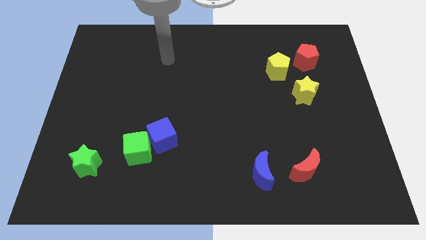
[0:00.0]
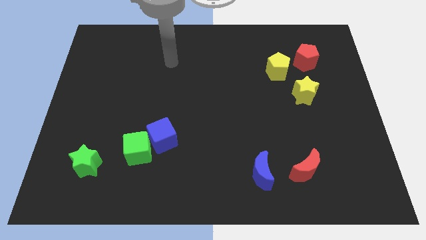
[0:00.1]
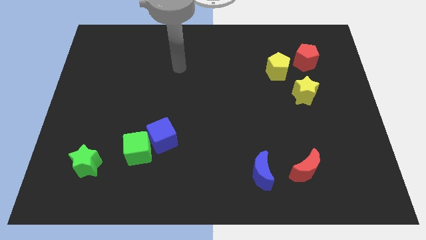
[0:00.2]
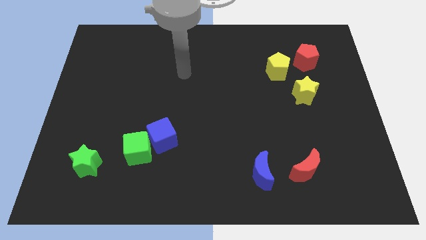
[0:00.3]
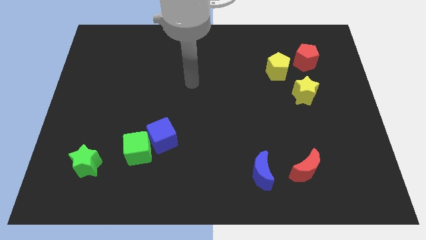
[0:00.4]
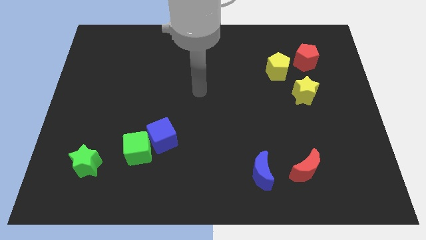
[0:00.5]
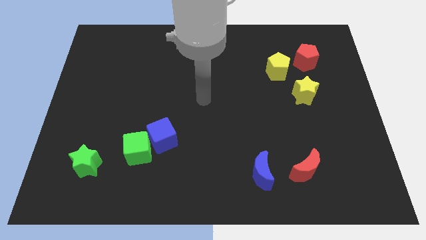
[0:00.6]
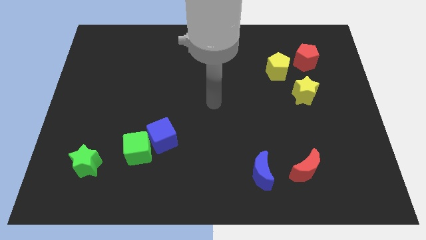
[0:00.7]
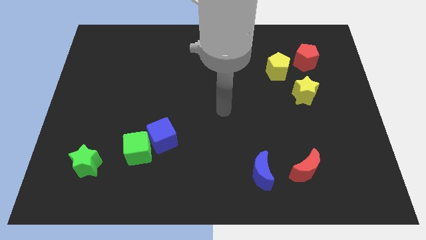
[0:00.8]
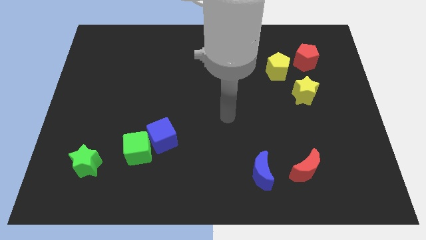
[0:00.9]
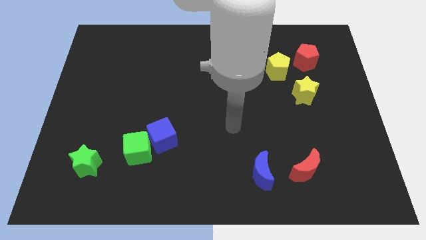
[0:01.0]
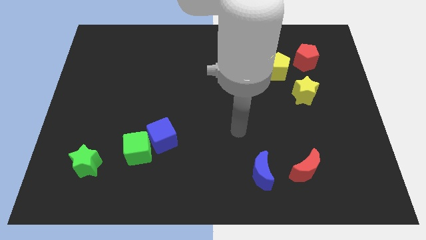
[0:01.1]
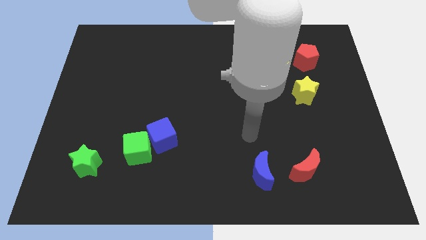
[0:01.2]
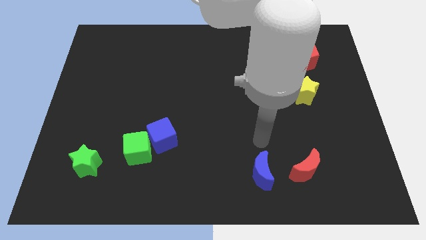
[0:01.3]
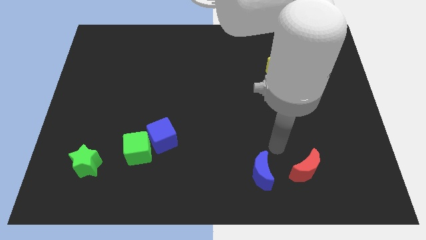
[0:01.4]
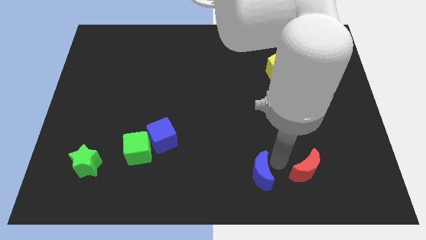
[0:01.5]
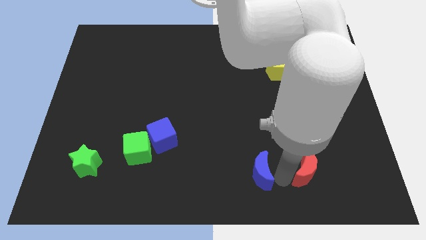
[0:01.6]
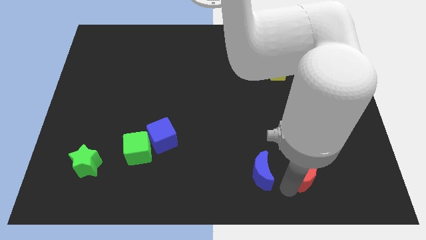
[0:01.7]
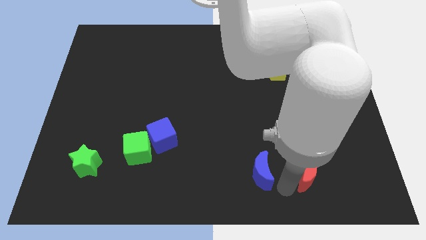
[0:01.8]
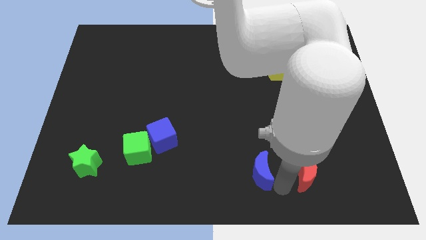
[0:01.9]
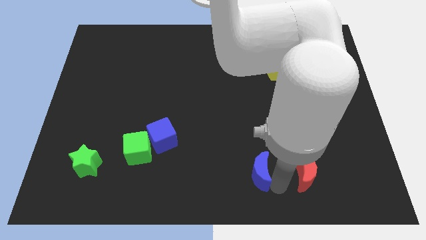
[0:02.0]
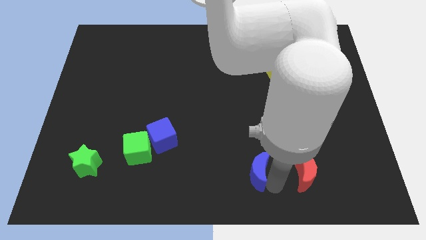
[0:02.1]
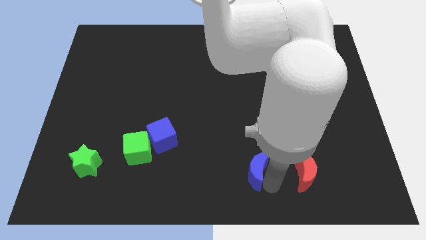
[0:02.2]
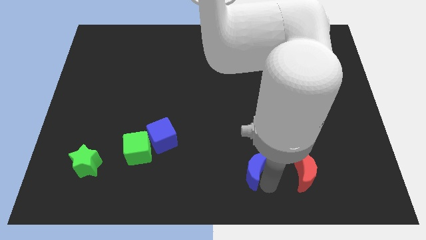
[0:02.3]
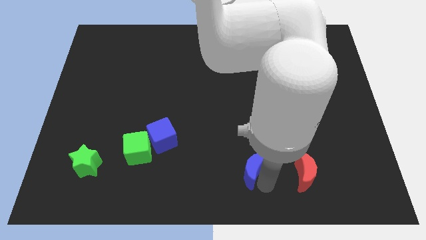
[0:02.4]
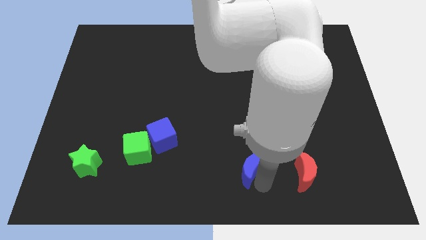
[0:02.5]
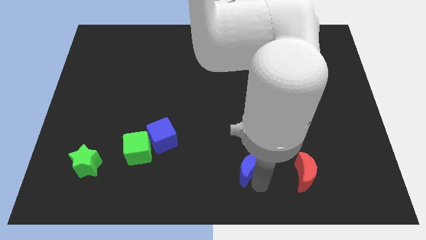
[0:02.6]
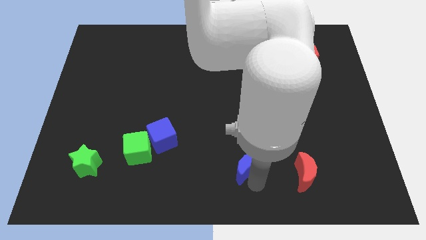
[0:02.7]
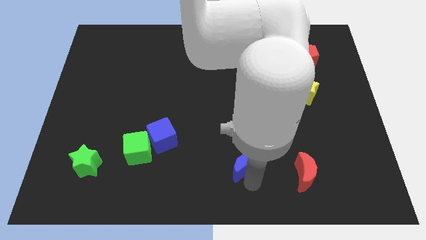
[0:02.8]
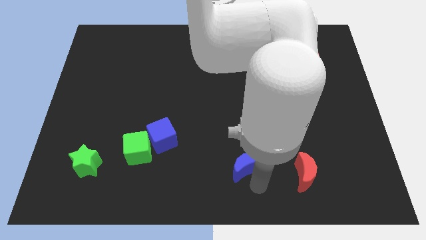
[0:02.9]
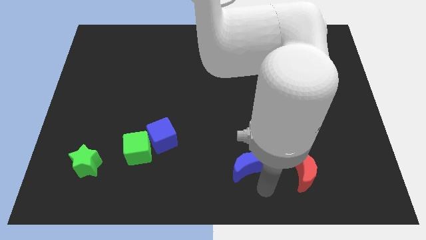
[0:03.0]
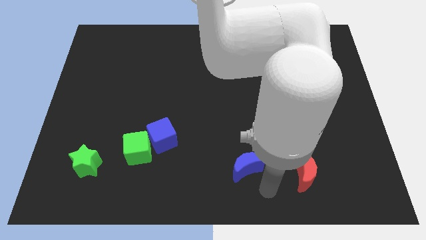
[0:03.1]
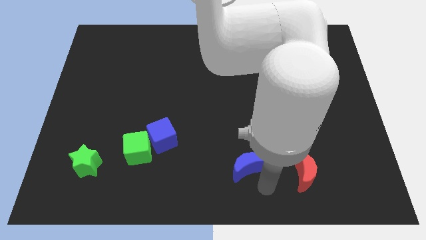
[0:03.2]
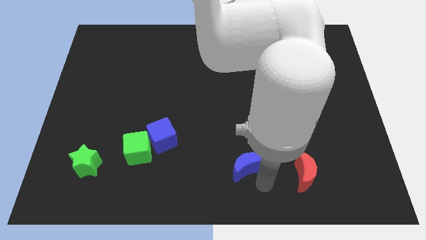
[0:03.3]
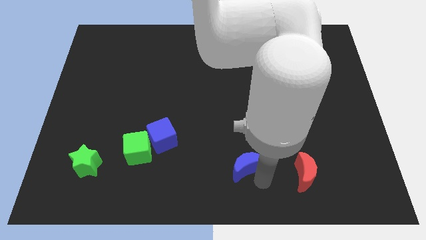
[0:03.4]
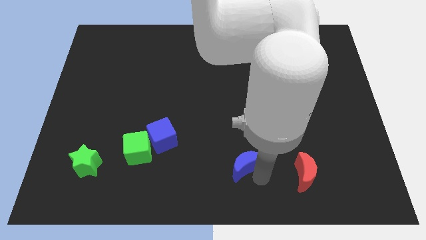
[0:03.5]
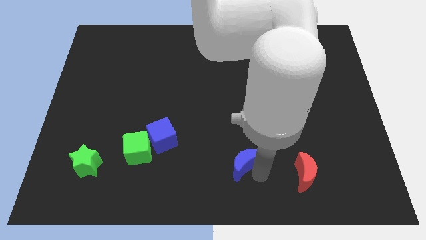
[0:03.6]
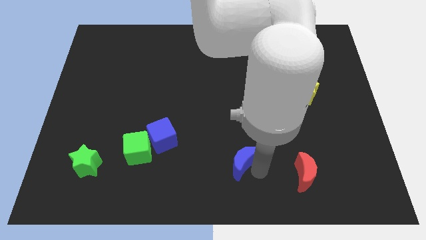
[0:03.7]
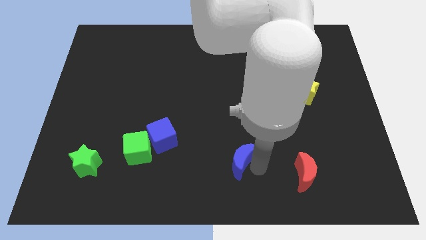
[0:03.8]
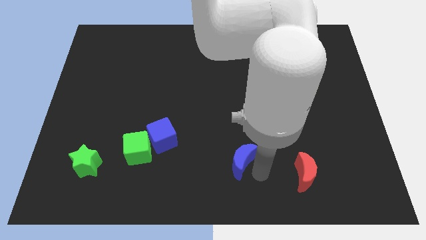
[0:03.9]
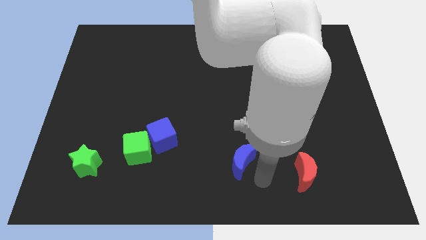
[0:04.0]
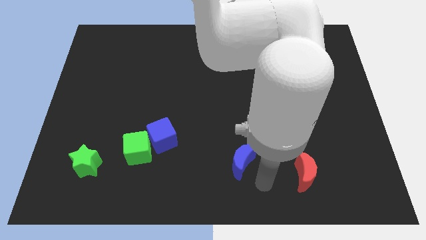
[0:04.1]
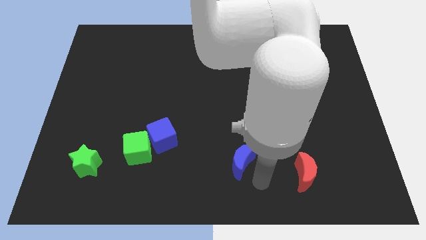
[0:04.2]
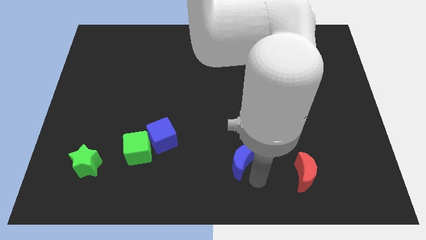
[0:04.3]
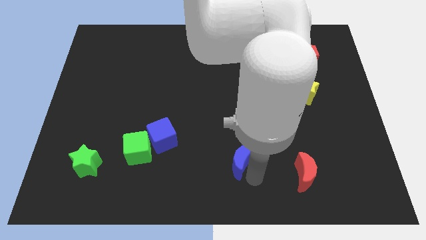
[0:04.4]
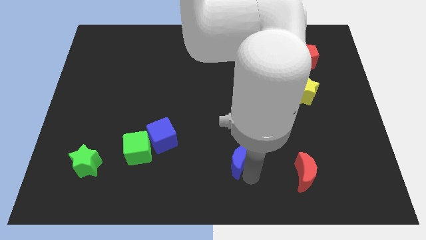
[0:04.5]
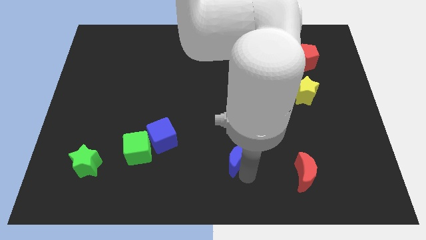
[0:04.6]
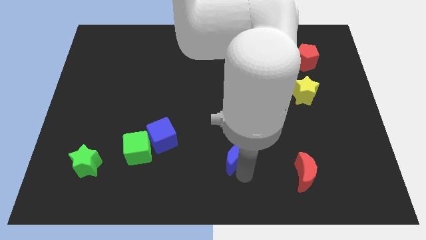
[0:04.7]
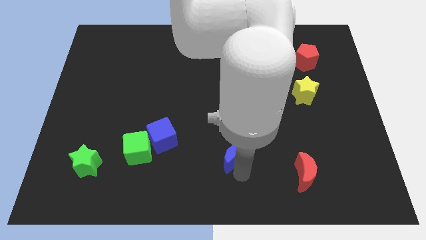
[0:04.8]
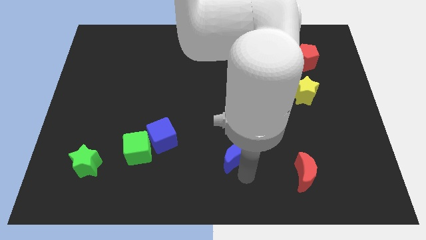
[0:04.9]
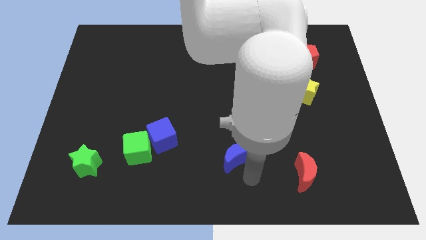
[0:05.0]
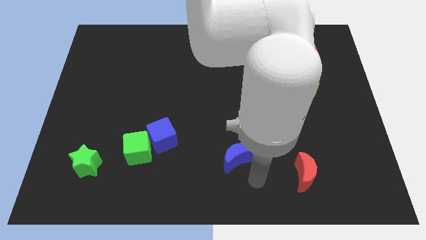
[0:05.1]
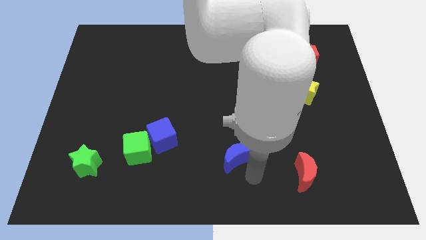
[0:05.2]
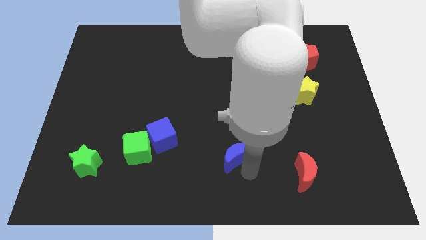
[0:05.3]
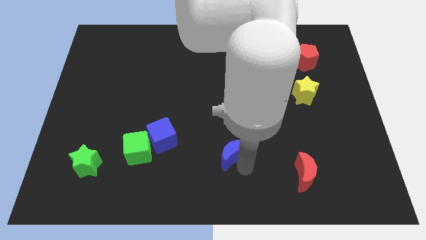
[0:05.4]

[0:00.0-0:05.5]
push the blue moon upwards and to the left a little

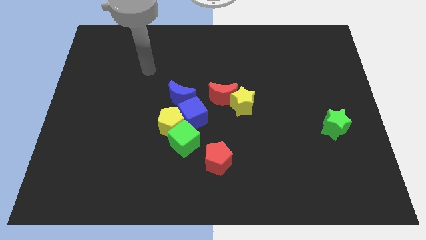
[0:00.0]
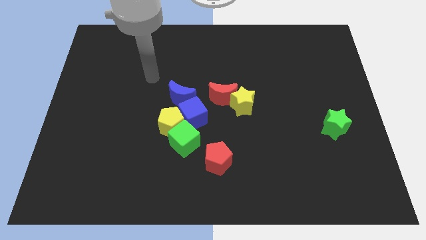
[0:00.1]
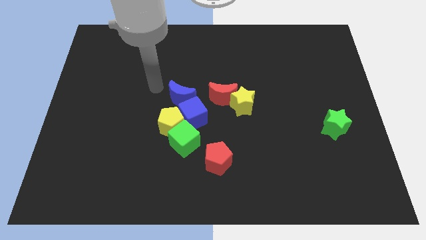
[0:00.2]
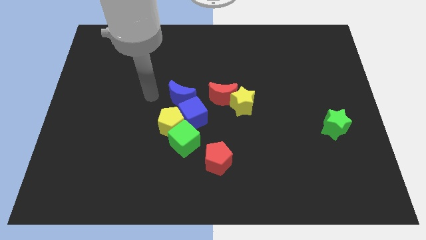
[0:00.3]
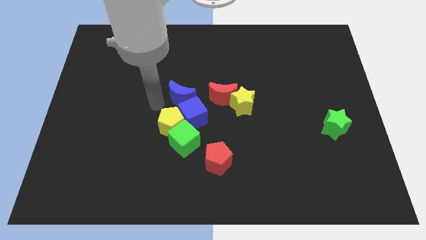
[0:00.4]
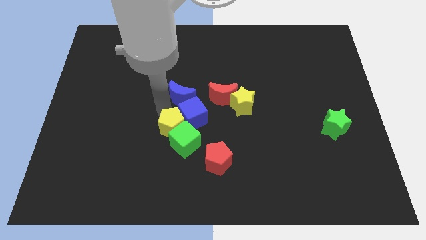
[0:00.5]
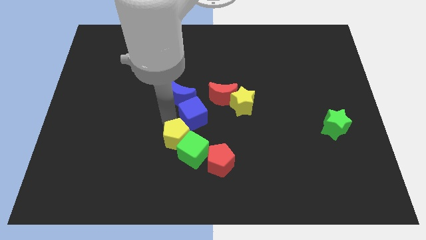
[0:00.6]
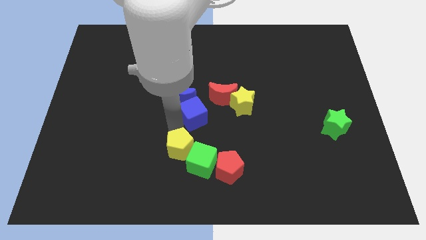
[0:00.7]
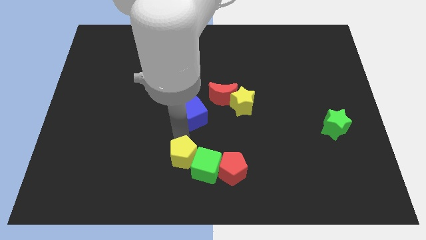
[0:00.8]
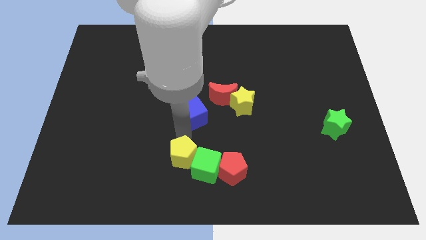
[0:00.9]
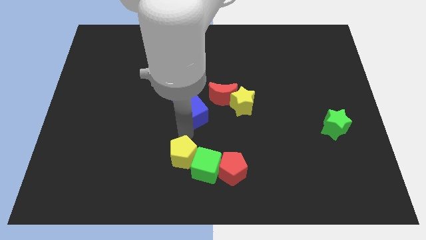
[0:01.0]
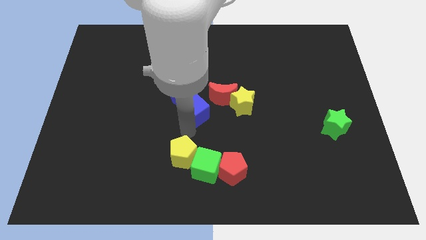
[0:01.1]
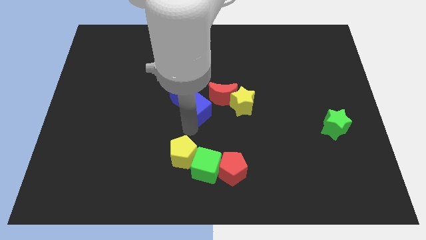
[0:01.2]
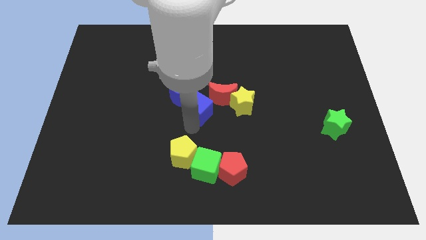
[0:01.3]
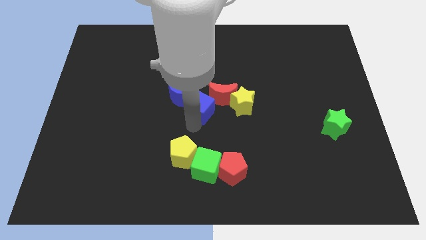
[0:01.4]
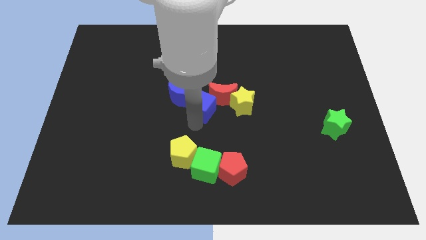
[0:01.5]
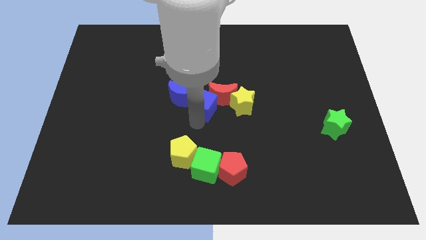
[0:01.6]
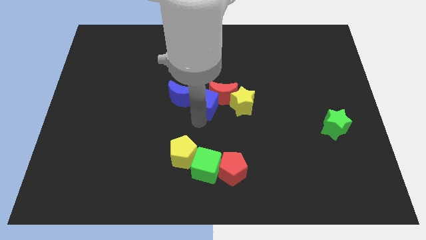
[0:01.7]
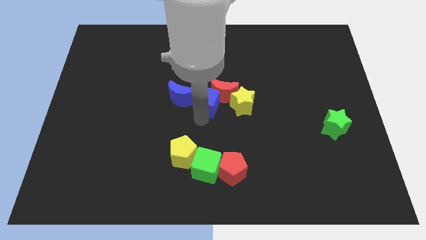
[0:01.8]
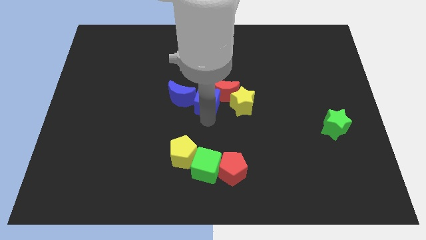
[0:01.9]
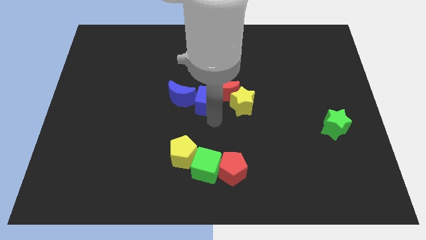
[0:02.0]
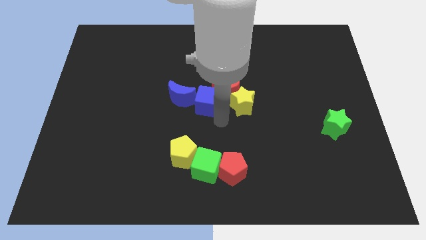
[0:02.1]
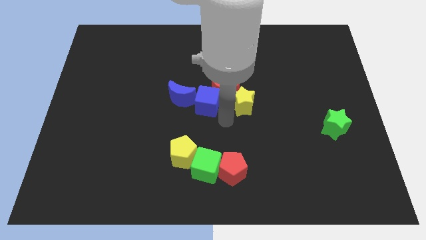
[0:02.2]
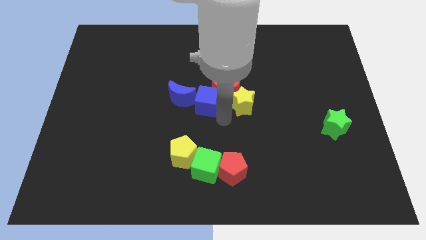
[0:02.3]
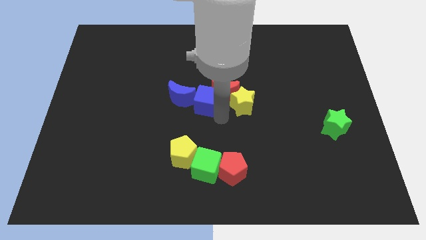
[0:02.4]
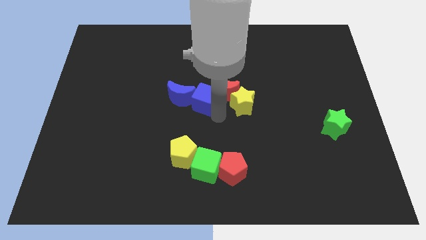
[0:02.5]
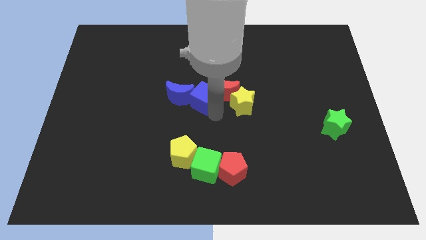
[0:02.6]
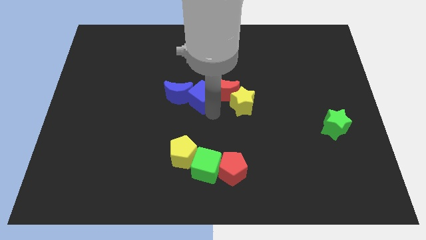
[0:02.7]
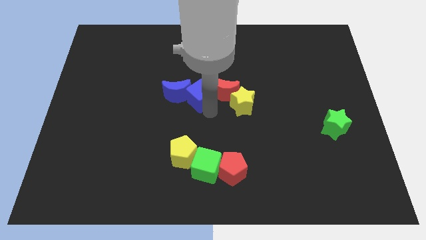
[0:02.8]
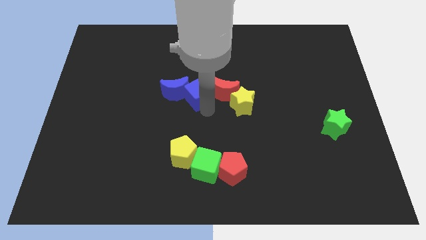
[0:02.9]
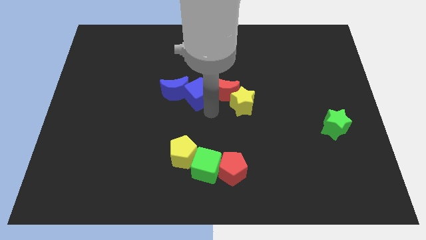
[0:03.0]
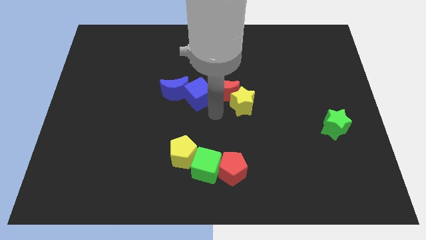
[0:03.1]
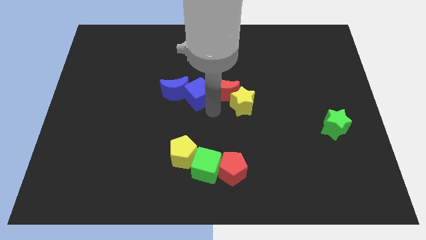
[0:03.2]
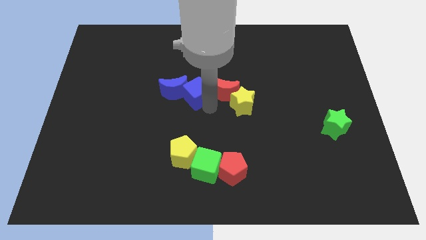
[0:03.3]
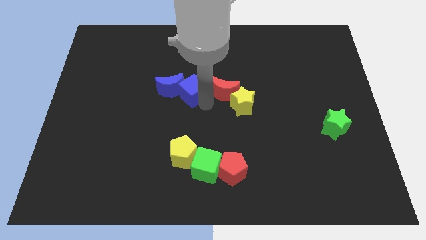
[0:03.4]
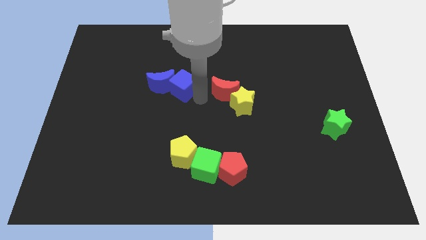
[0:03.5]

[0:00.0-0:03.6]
slightly move the blue cube diagonally up and left
